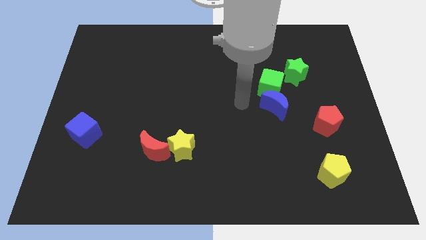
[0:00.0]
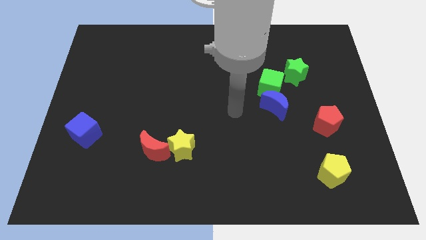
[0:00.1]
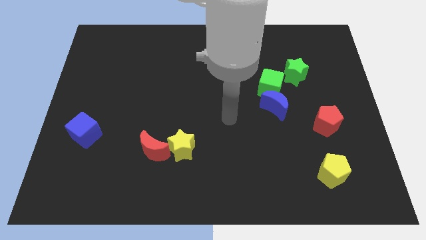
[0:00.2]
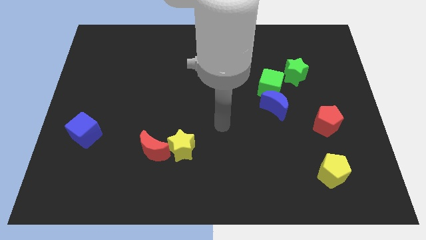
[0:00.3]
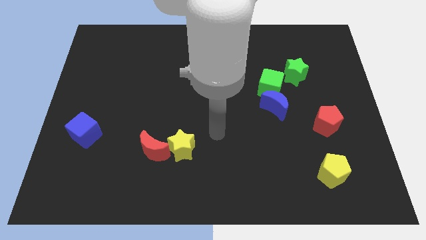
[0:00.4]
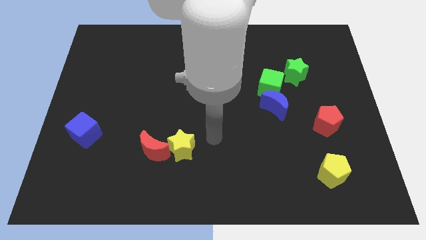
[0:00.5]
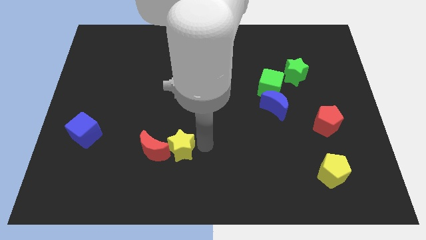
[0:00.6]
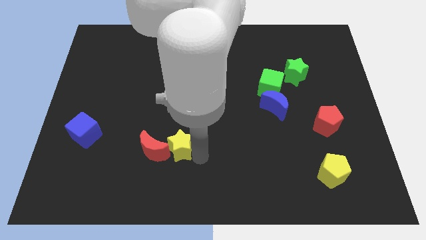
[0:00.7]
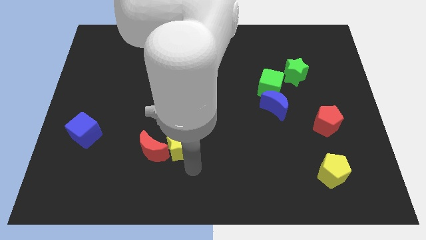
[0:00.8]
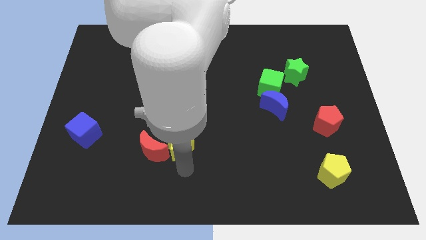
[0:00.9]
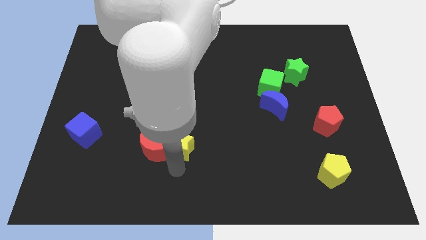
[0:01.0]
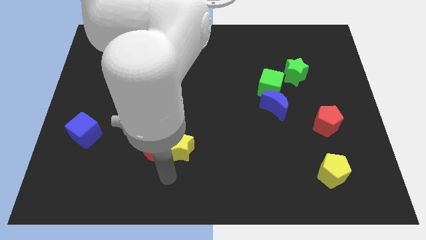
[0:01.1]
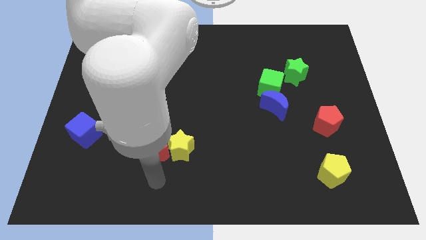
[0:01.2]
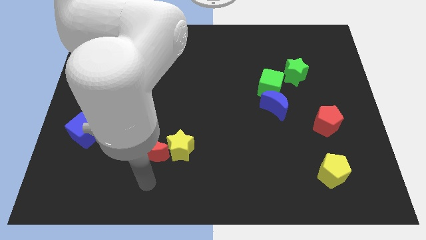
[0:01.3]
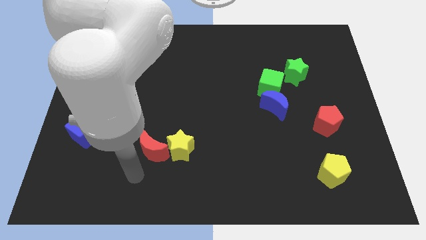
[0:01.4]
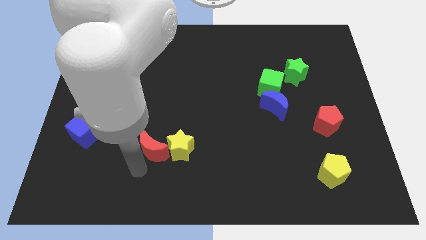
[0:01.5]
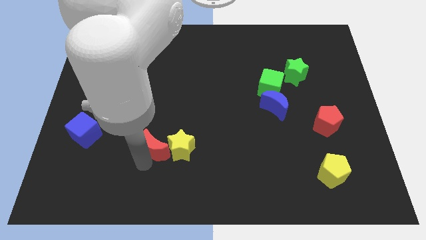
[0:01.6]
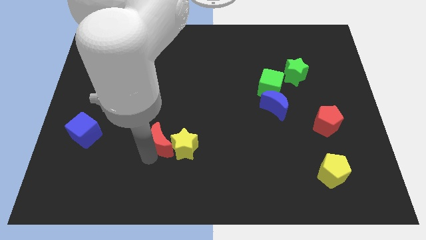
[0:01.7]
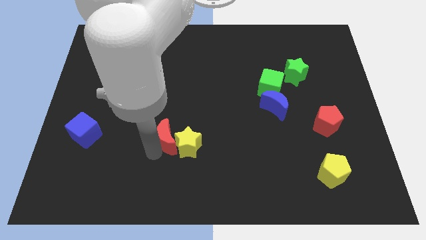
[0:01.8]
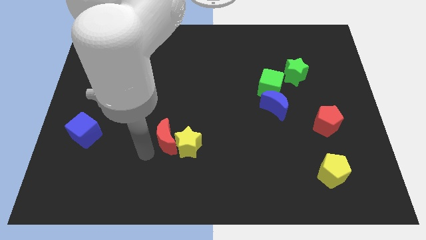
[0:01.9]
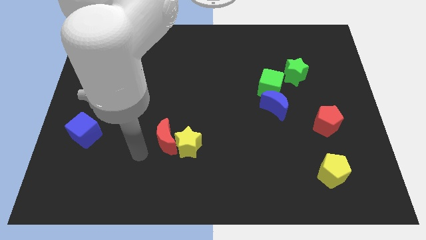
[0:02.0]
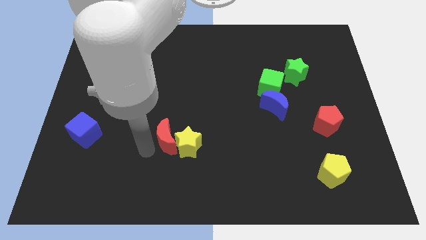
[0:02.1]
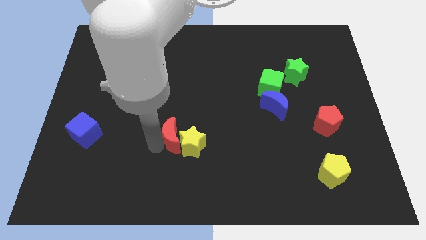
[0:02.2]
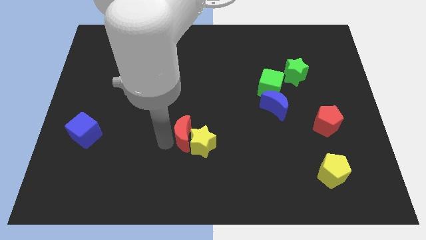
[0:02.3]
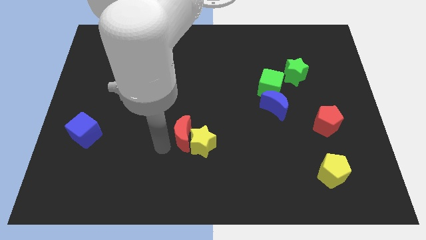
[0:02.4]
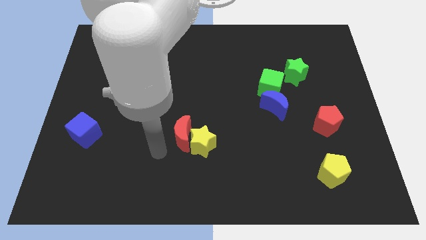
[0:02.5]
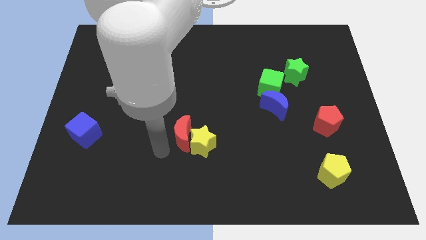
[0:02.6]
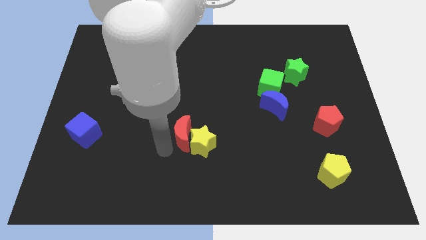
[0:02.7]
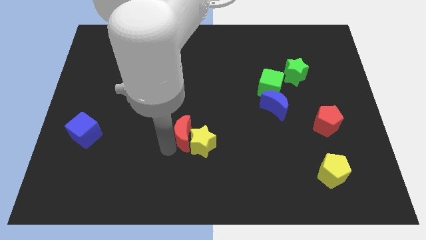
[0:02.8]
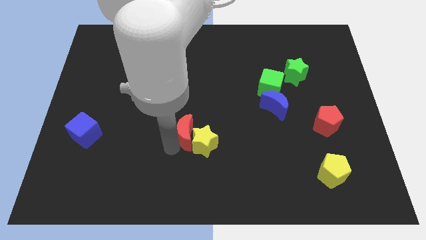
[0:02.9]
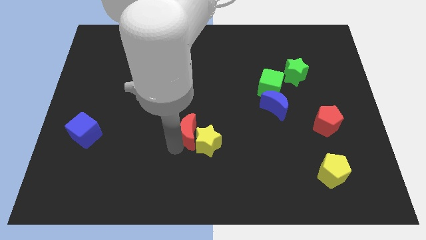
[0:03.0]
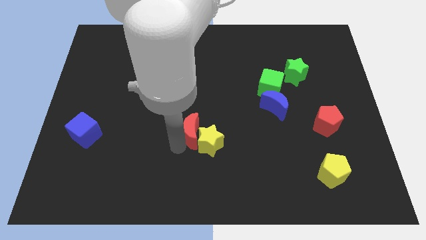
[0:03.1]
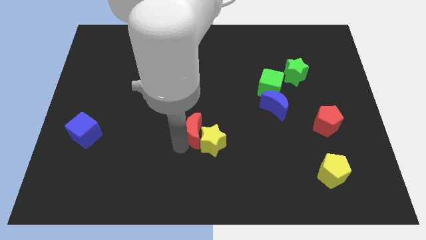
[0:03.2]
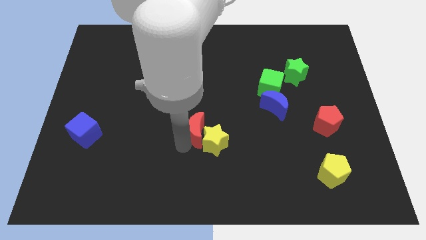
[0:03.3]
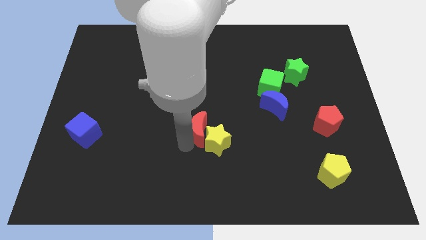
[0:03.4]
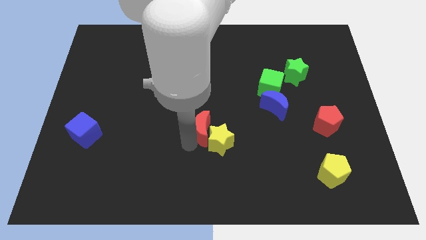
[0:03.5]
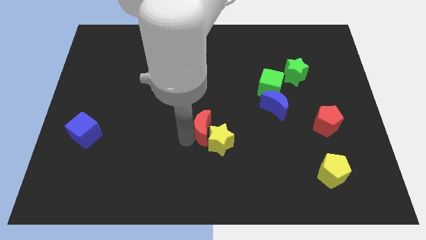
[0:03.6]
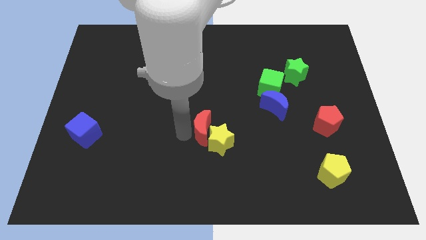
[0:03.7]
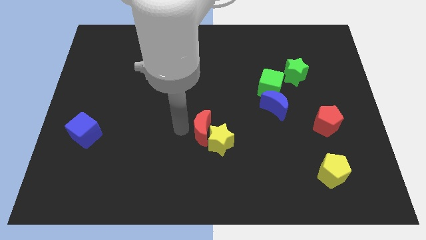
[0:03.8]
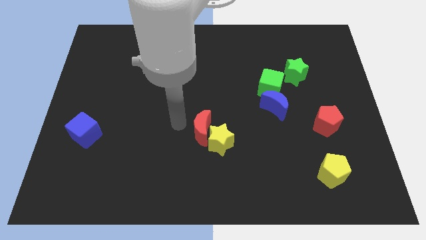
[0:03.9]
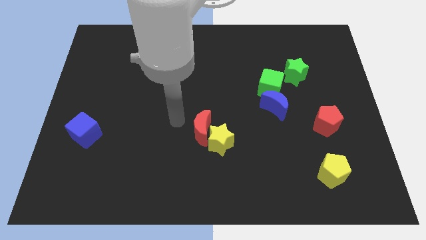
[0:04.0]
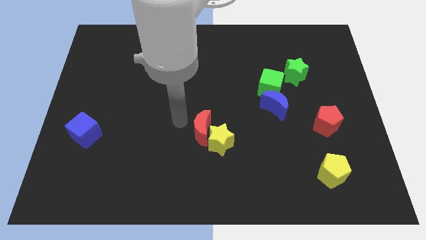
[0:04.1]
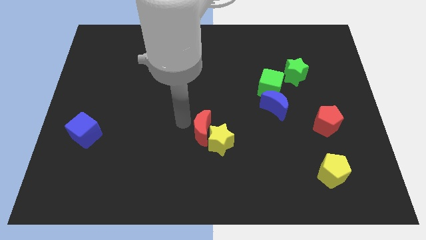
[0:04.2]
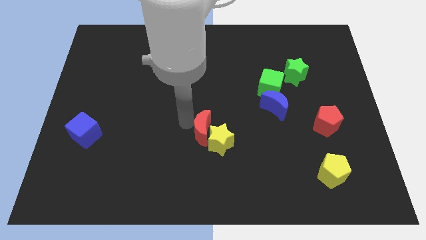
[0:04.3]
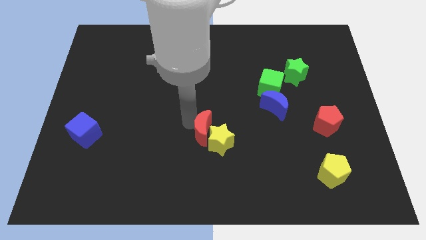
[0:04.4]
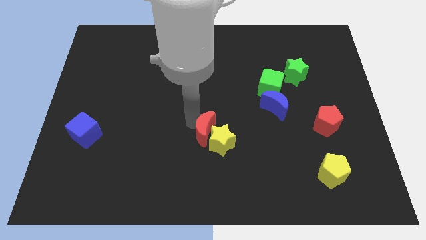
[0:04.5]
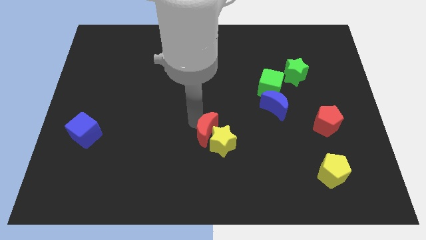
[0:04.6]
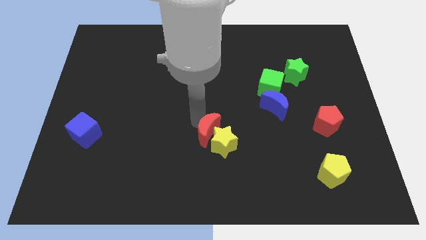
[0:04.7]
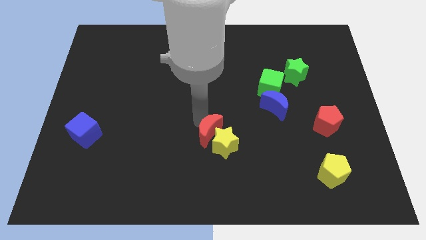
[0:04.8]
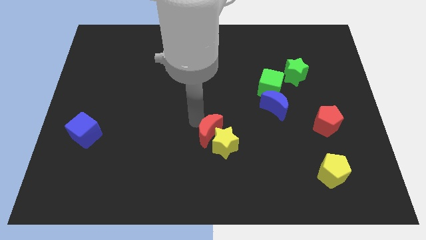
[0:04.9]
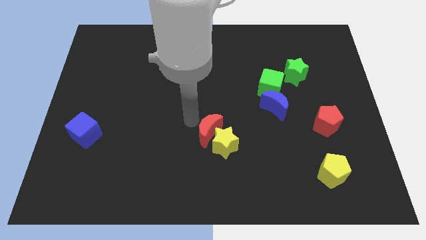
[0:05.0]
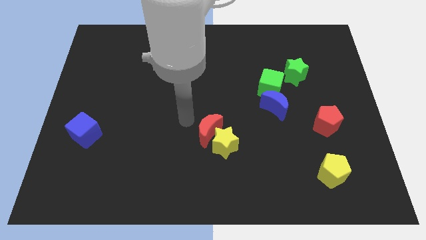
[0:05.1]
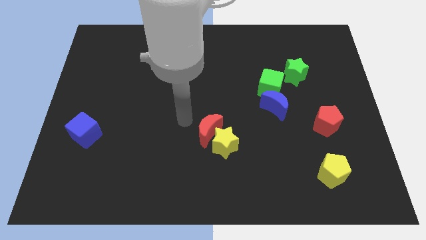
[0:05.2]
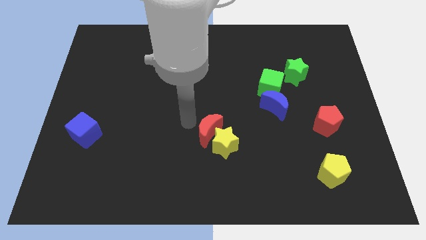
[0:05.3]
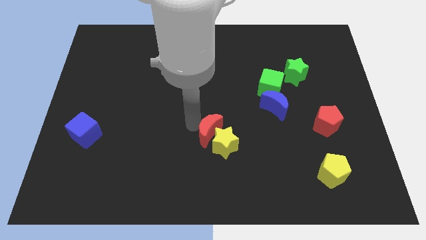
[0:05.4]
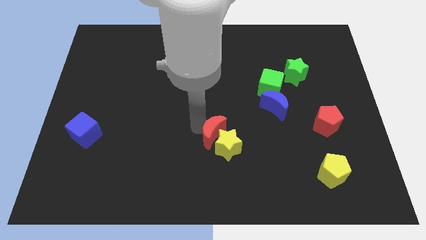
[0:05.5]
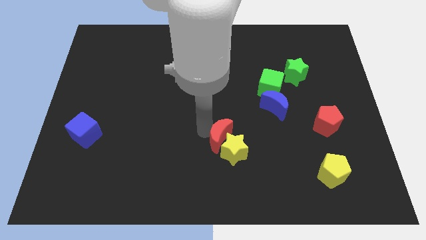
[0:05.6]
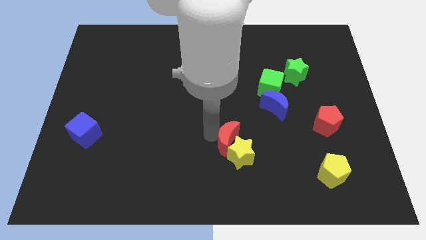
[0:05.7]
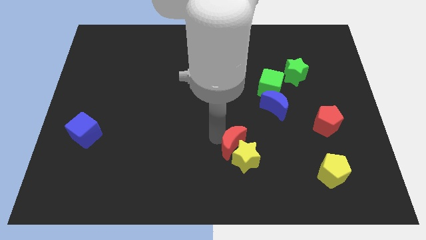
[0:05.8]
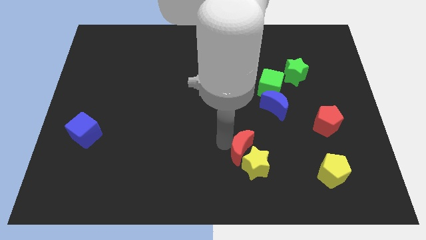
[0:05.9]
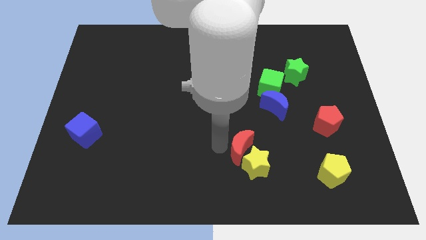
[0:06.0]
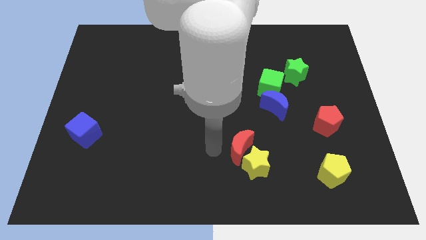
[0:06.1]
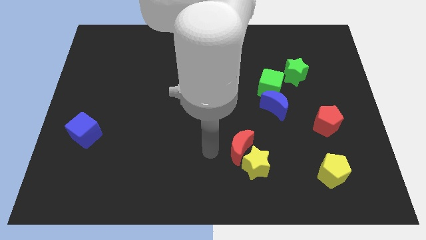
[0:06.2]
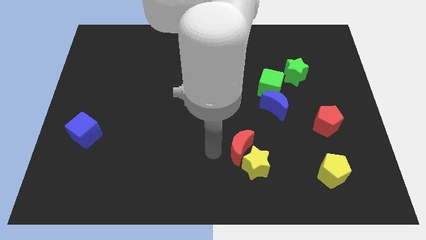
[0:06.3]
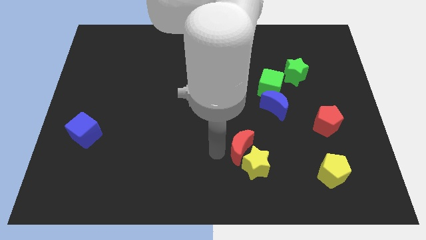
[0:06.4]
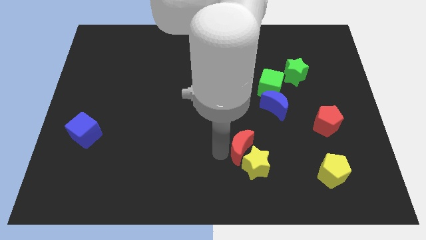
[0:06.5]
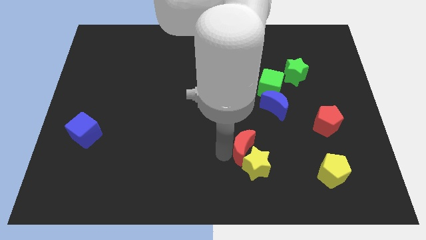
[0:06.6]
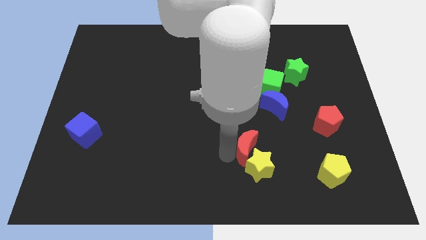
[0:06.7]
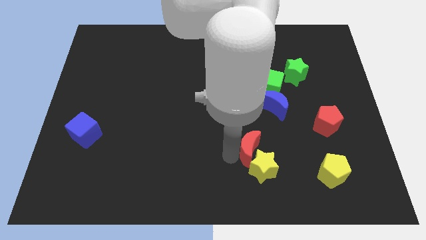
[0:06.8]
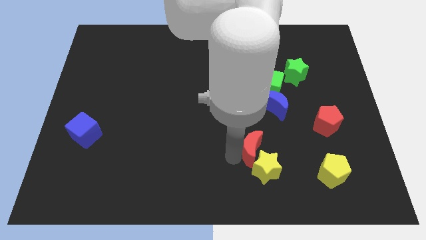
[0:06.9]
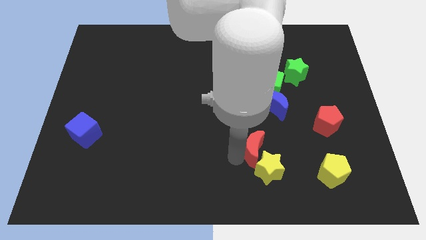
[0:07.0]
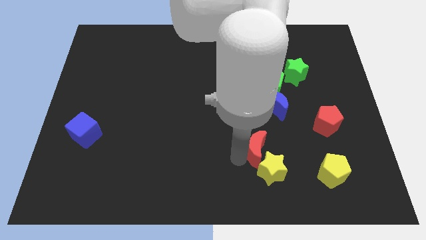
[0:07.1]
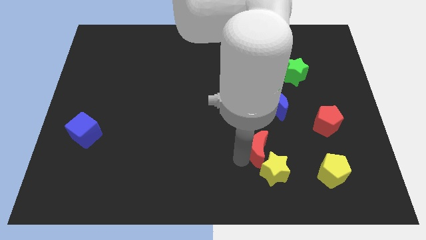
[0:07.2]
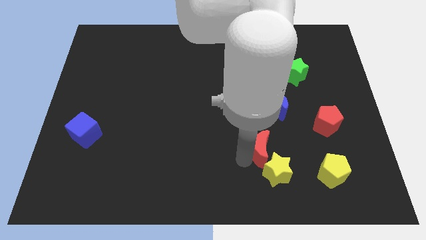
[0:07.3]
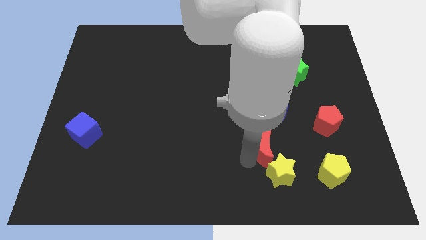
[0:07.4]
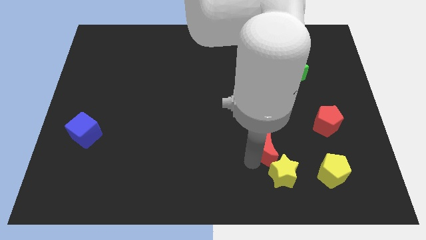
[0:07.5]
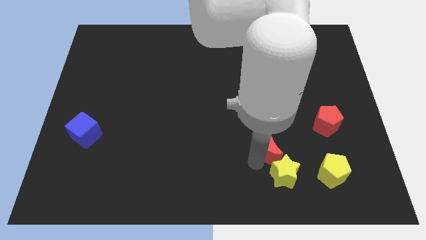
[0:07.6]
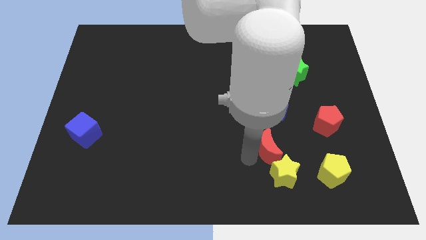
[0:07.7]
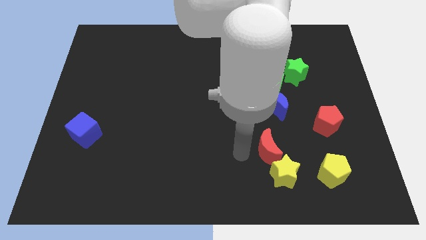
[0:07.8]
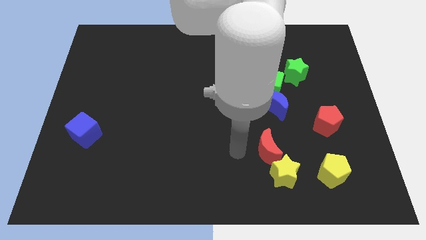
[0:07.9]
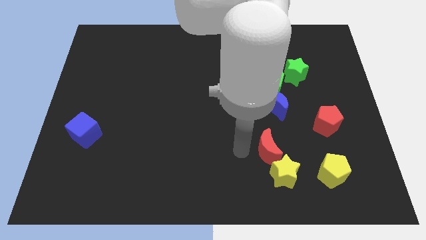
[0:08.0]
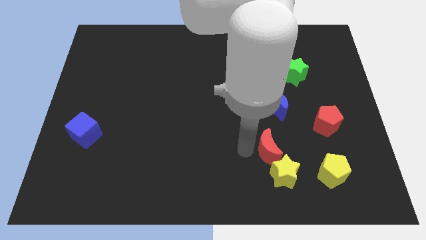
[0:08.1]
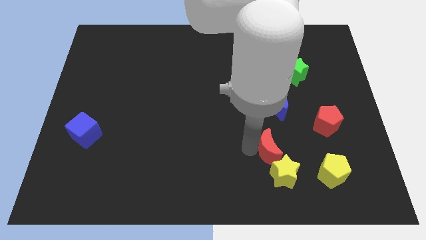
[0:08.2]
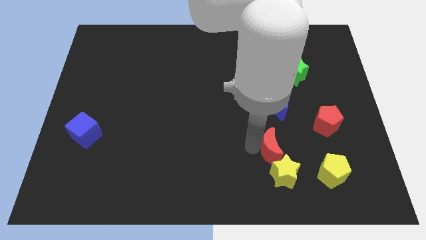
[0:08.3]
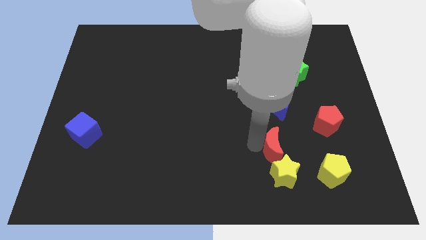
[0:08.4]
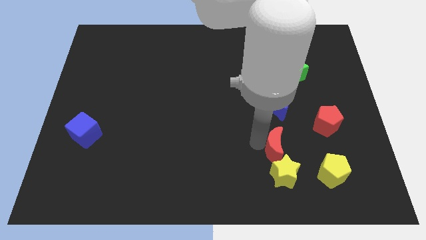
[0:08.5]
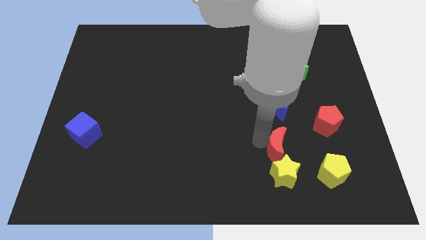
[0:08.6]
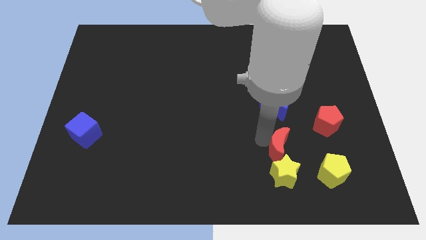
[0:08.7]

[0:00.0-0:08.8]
slide the red moon to the top left of the yellow pentagon
